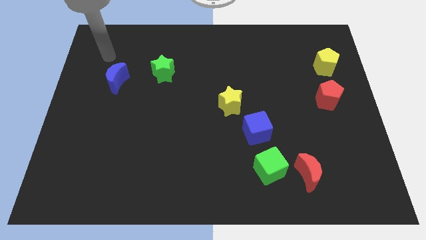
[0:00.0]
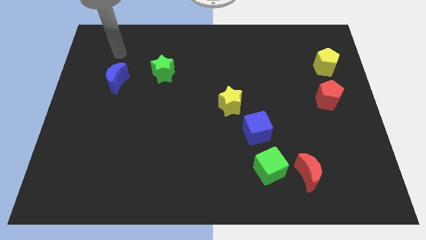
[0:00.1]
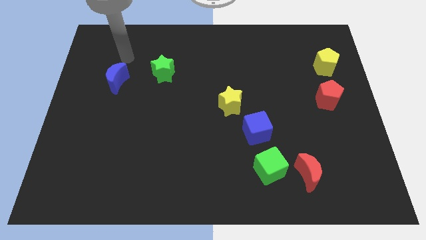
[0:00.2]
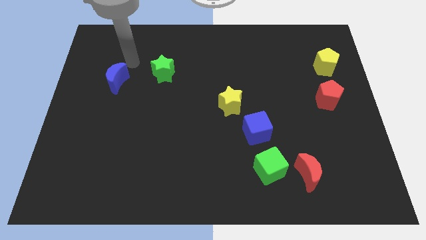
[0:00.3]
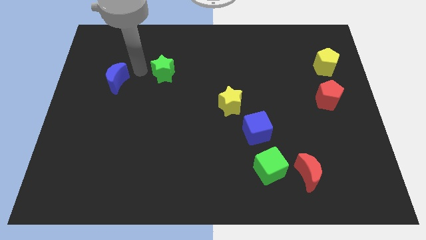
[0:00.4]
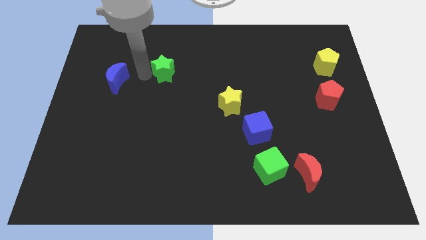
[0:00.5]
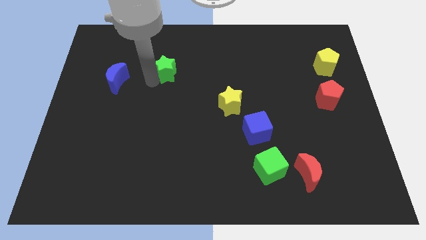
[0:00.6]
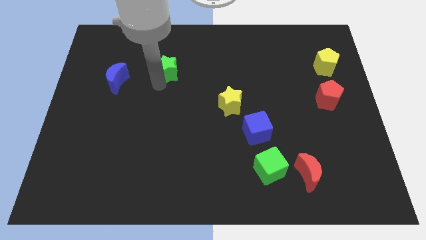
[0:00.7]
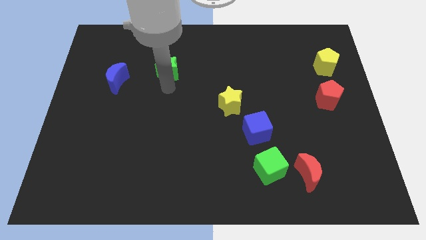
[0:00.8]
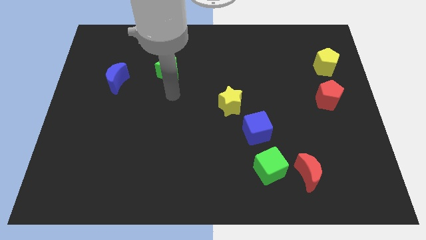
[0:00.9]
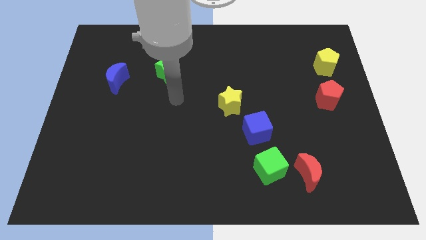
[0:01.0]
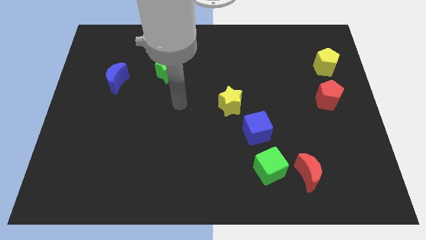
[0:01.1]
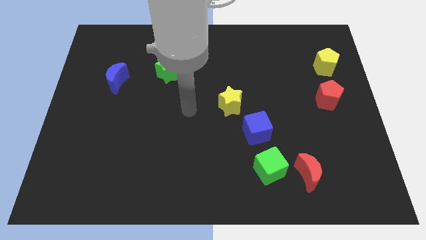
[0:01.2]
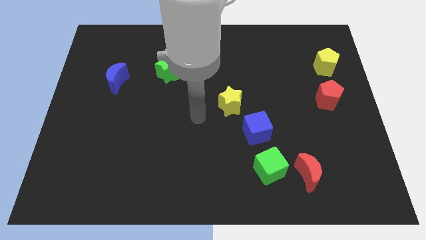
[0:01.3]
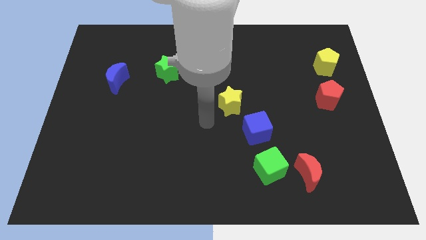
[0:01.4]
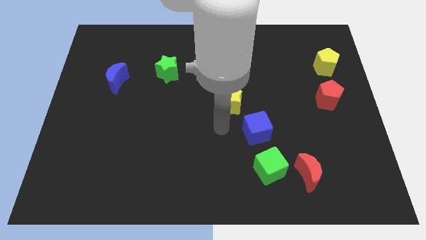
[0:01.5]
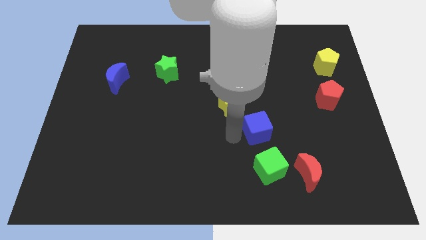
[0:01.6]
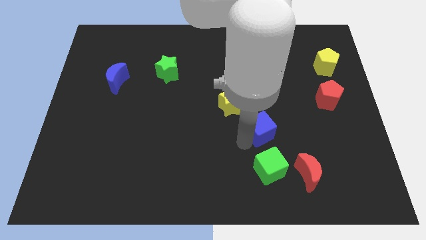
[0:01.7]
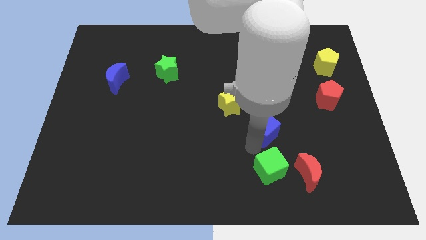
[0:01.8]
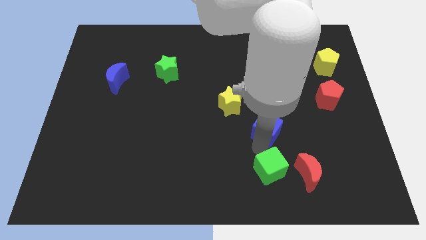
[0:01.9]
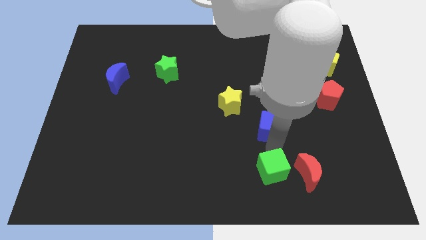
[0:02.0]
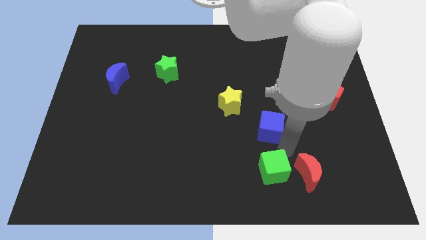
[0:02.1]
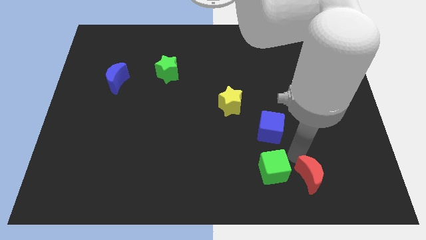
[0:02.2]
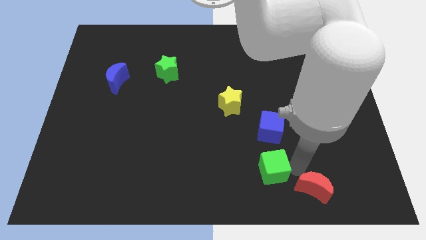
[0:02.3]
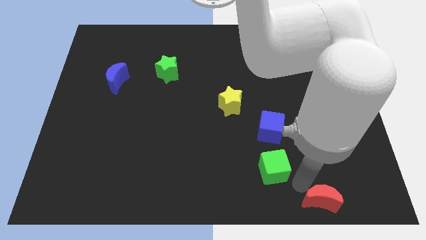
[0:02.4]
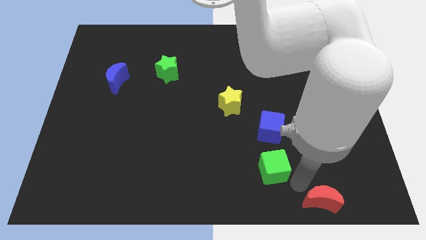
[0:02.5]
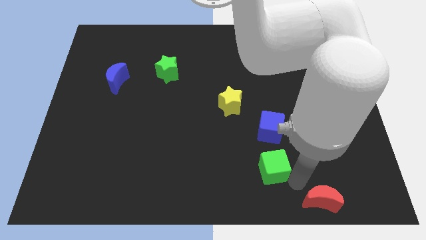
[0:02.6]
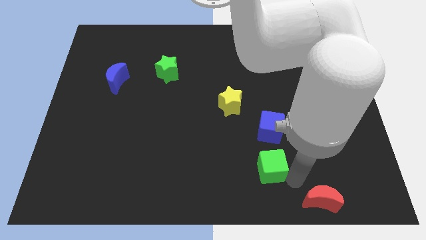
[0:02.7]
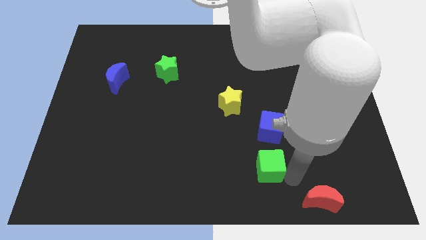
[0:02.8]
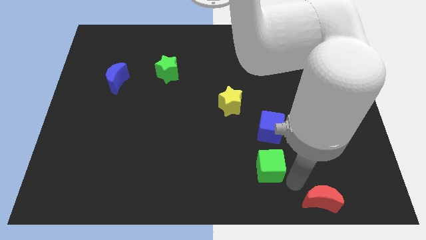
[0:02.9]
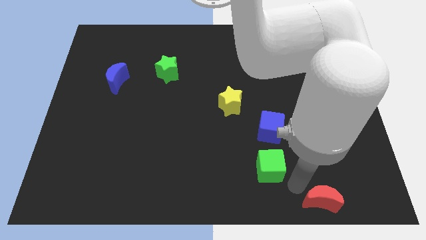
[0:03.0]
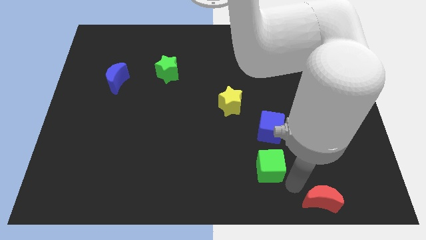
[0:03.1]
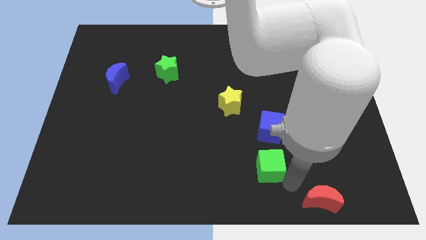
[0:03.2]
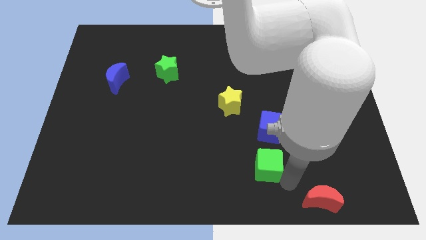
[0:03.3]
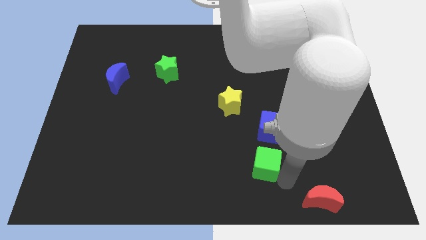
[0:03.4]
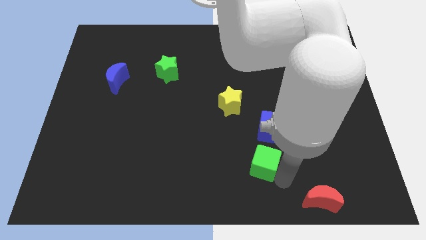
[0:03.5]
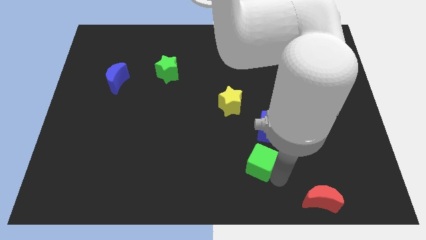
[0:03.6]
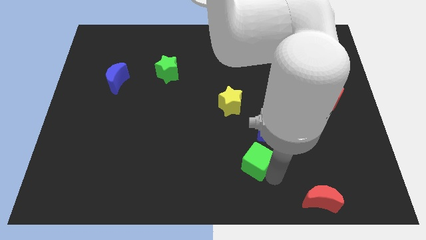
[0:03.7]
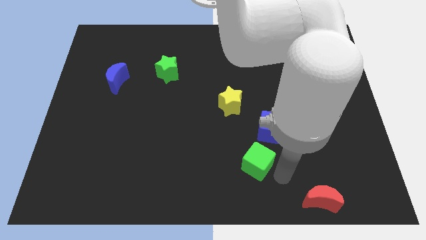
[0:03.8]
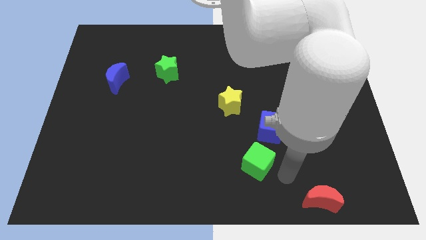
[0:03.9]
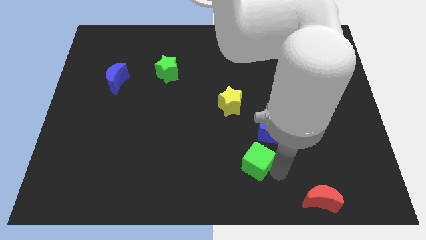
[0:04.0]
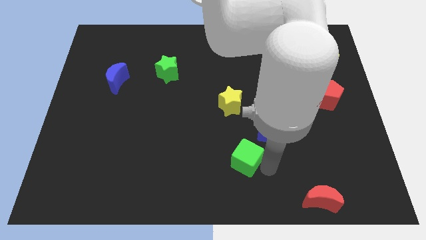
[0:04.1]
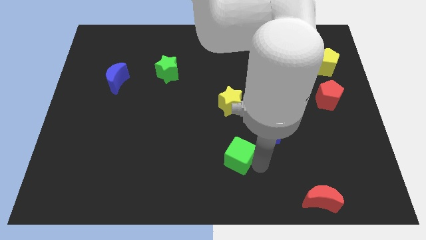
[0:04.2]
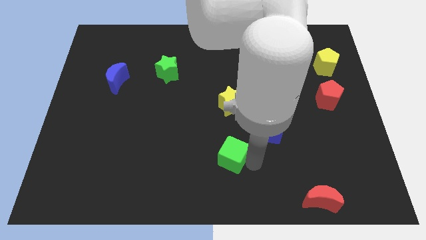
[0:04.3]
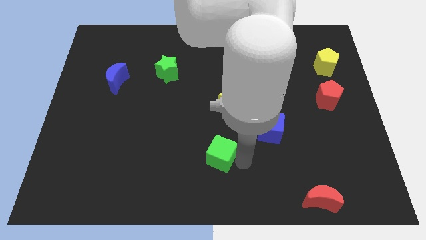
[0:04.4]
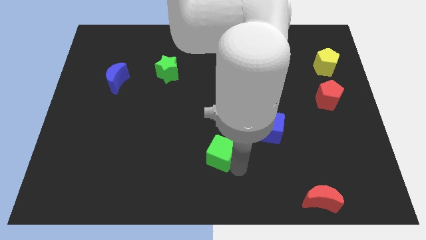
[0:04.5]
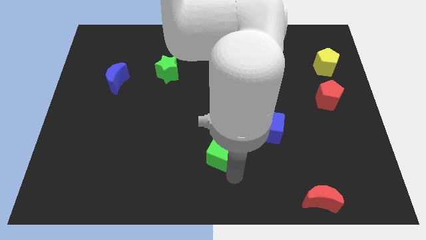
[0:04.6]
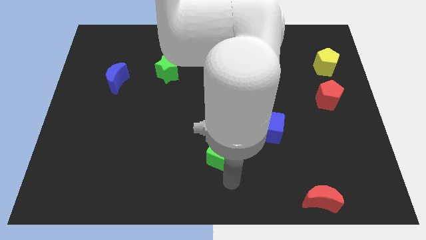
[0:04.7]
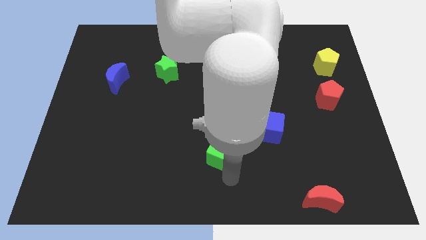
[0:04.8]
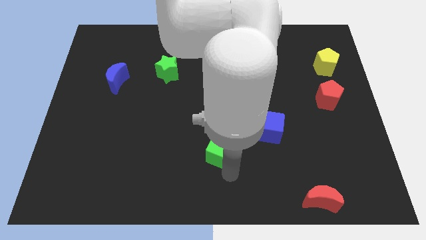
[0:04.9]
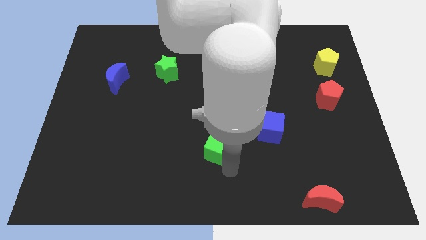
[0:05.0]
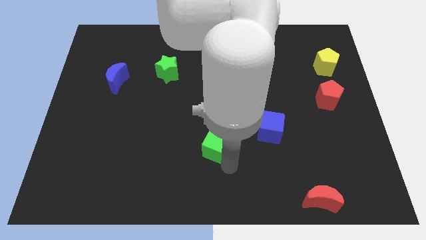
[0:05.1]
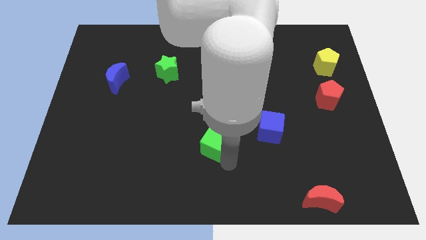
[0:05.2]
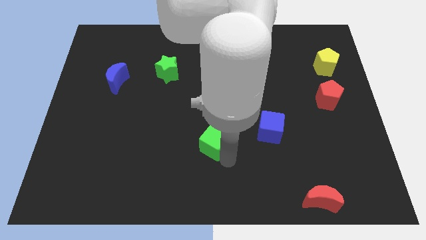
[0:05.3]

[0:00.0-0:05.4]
put the green cube to the middle

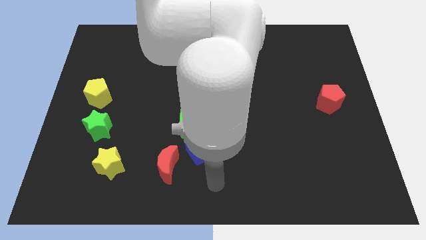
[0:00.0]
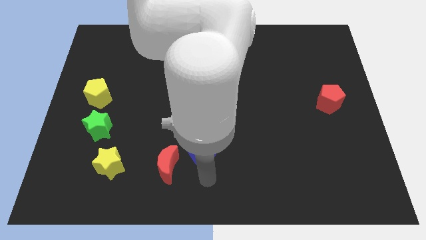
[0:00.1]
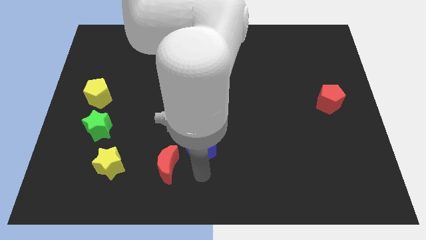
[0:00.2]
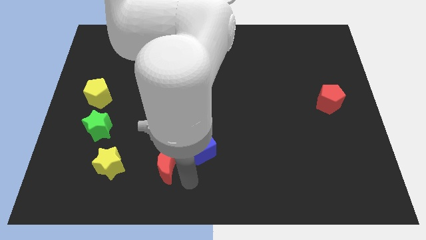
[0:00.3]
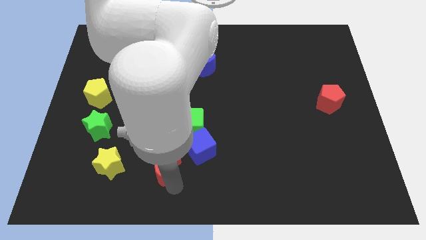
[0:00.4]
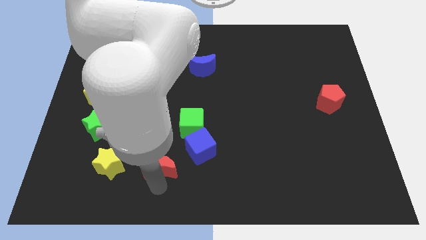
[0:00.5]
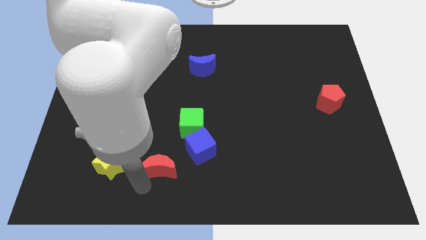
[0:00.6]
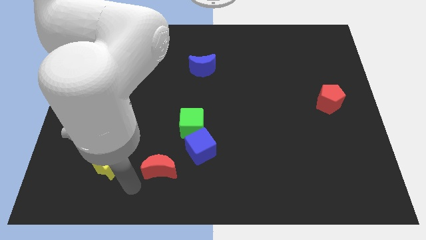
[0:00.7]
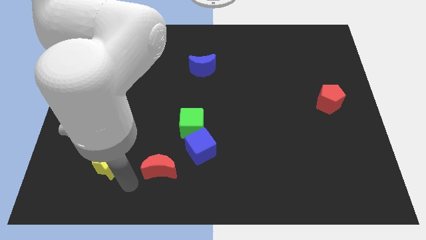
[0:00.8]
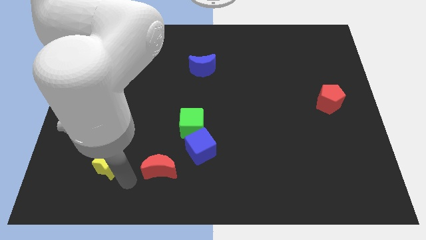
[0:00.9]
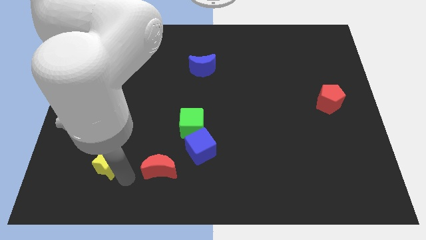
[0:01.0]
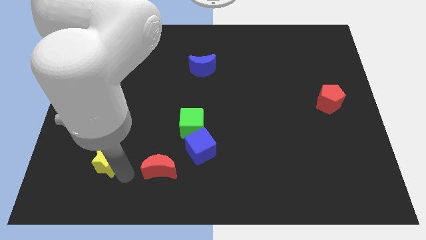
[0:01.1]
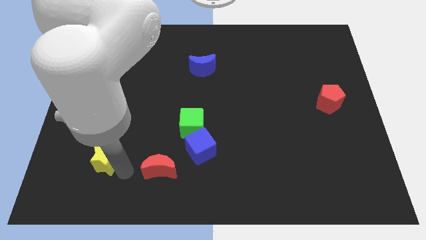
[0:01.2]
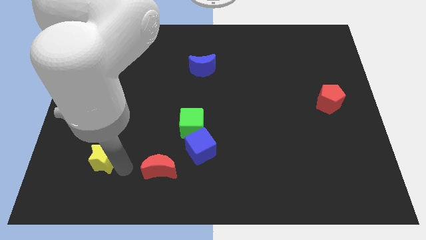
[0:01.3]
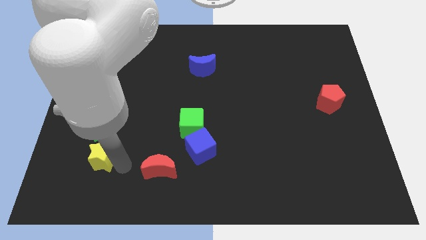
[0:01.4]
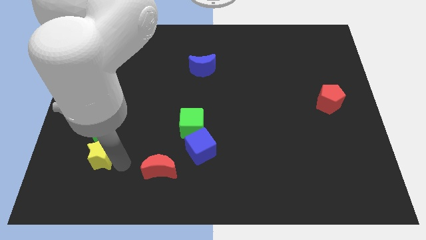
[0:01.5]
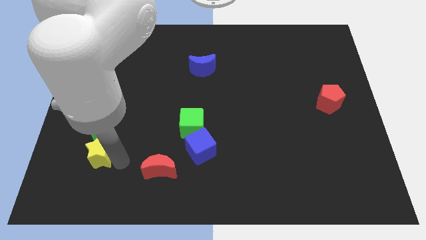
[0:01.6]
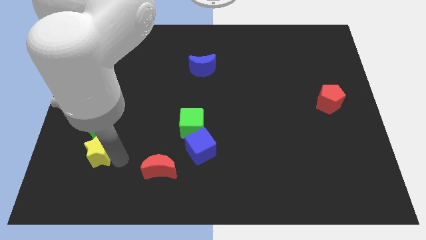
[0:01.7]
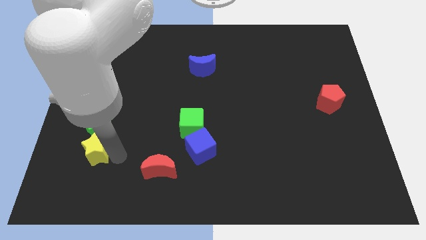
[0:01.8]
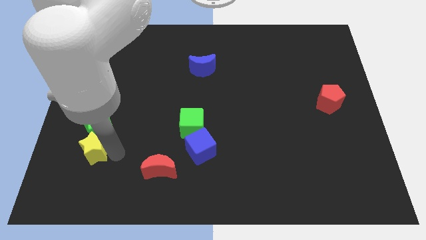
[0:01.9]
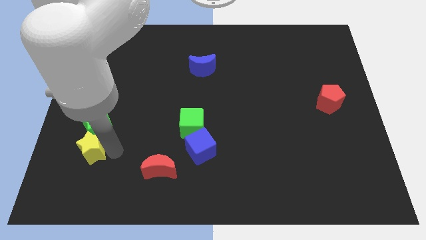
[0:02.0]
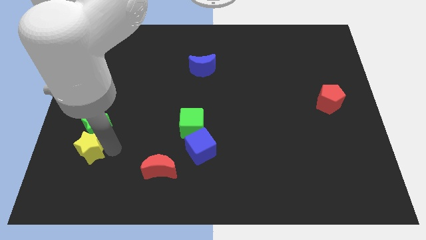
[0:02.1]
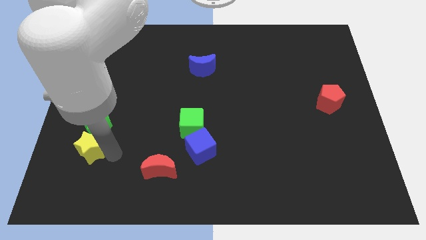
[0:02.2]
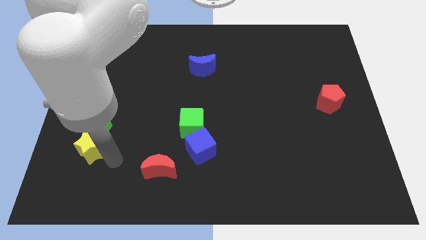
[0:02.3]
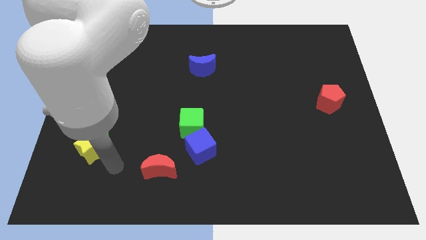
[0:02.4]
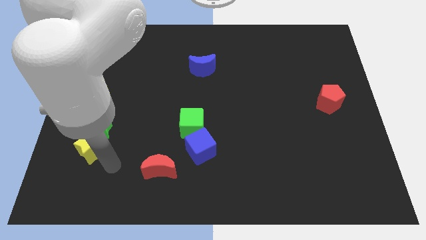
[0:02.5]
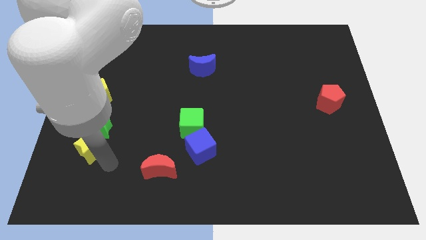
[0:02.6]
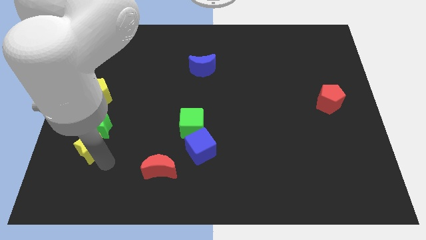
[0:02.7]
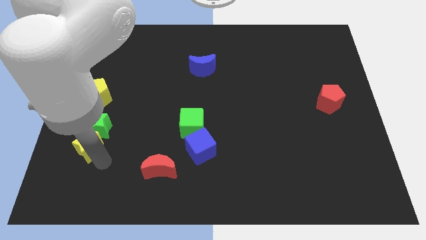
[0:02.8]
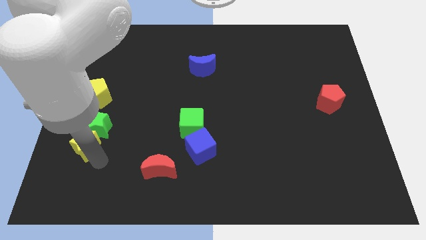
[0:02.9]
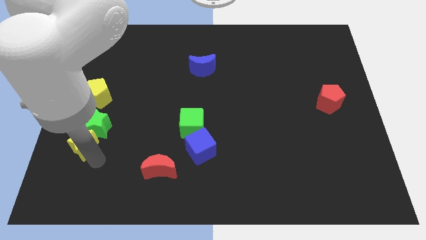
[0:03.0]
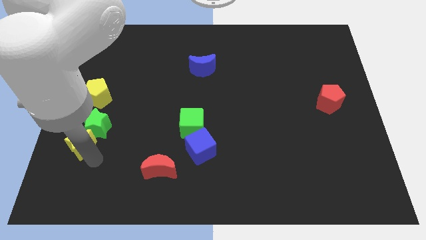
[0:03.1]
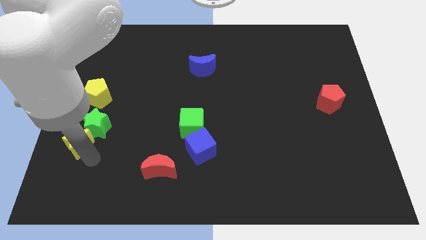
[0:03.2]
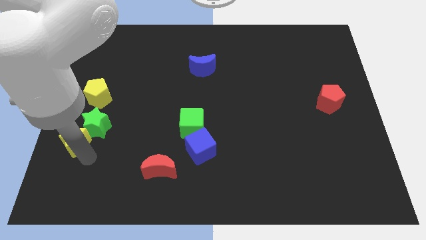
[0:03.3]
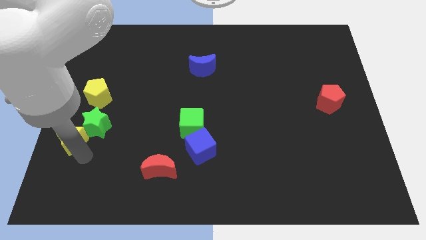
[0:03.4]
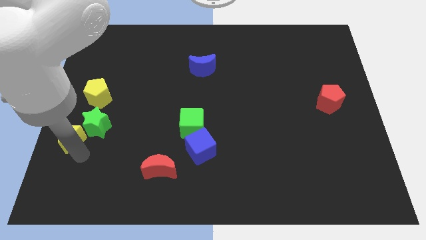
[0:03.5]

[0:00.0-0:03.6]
slide the yellow star to the left side of the board
